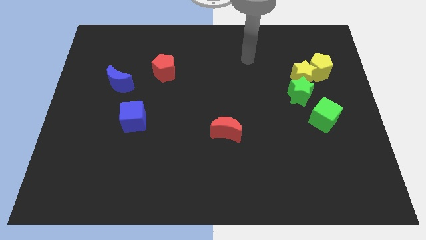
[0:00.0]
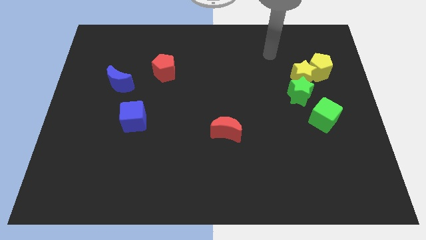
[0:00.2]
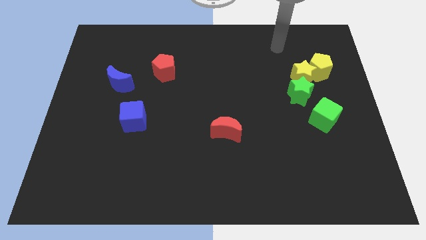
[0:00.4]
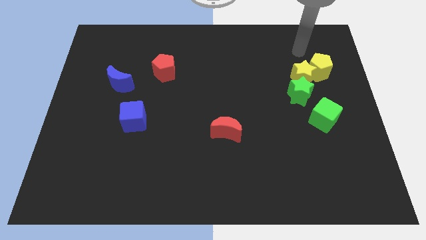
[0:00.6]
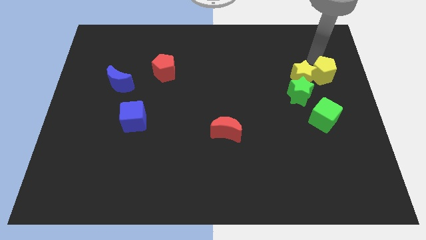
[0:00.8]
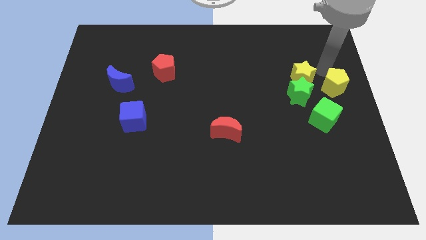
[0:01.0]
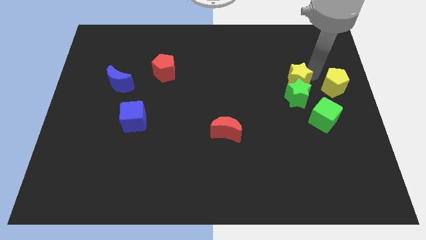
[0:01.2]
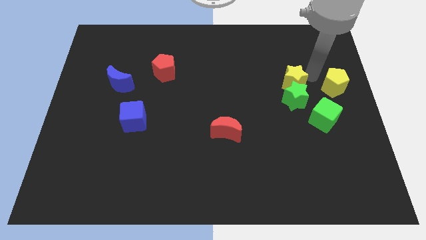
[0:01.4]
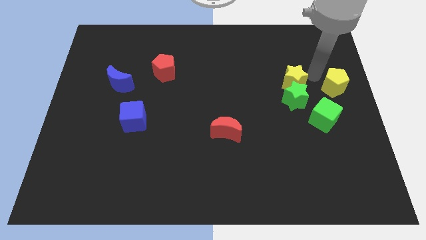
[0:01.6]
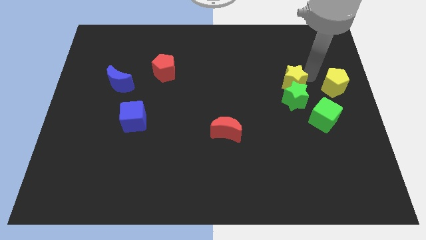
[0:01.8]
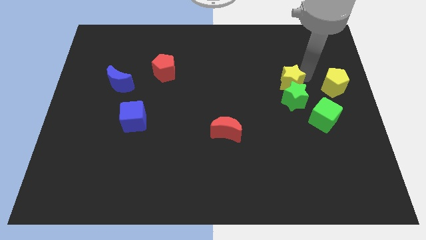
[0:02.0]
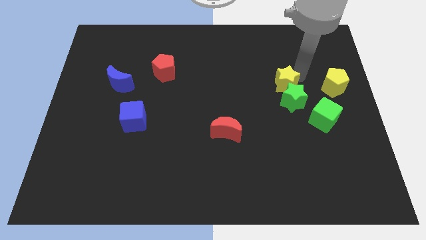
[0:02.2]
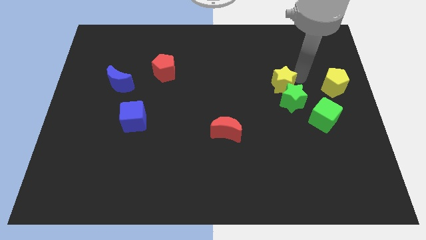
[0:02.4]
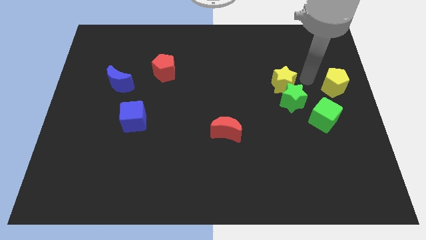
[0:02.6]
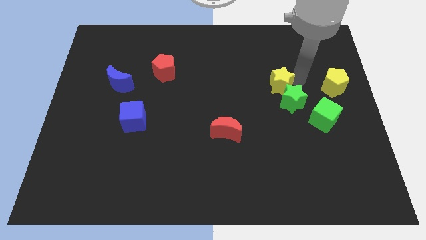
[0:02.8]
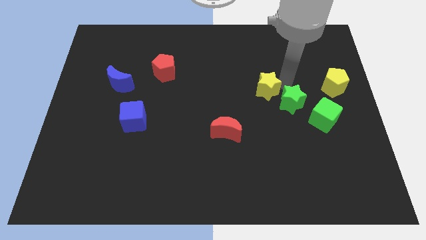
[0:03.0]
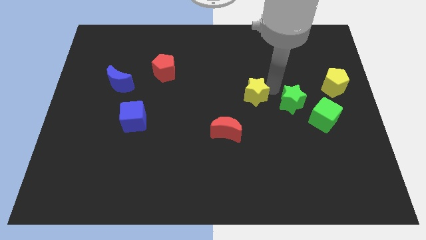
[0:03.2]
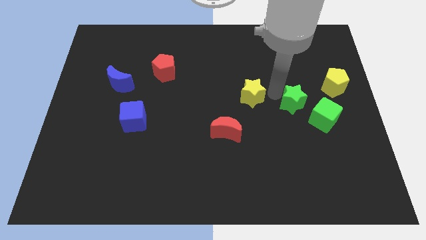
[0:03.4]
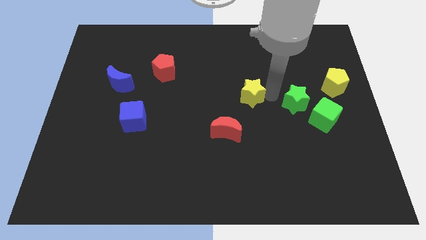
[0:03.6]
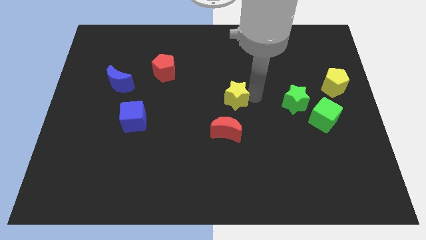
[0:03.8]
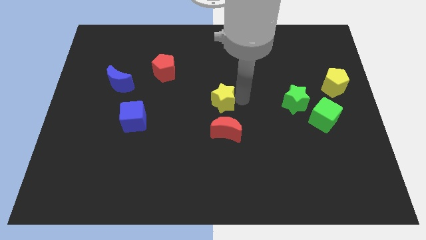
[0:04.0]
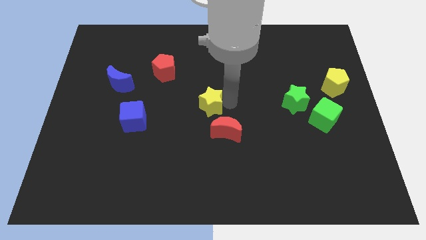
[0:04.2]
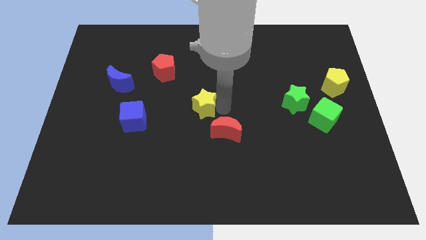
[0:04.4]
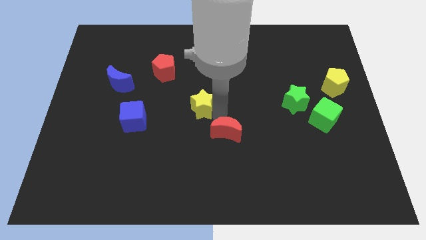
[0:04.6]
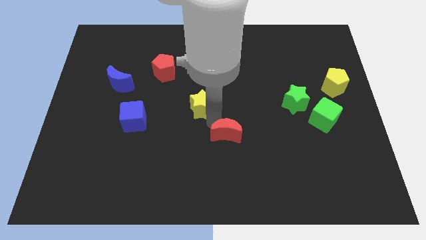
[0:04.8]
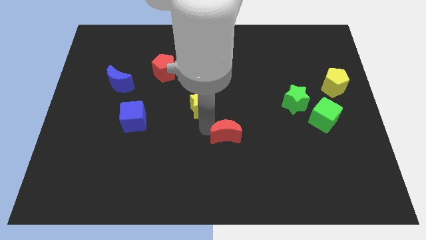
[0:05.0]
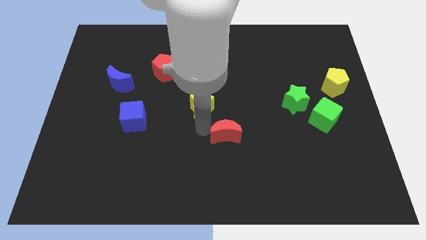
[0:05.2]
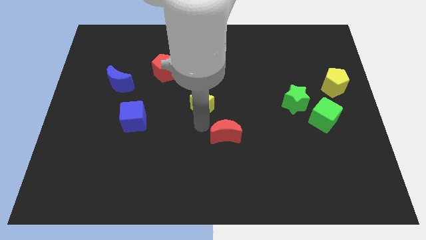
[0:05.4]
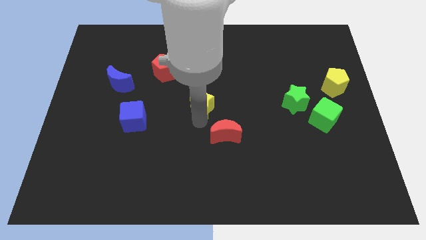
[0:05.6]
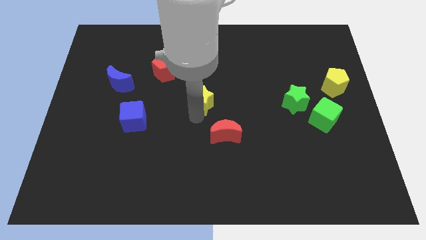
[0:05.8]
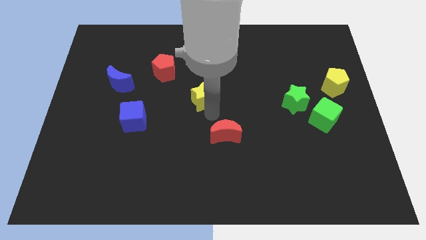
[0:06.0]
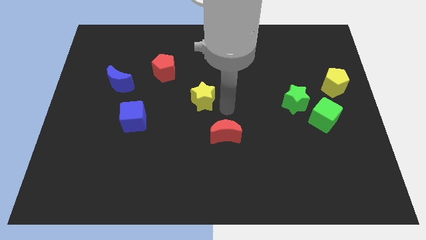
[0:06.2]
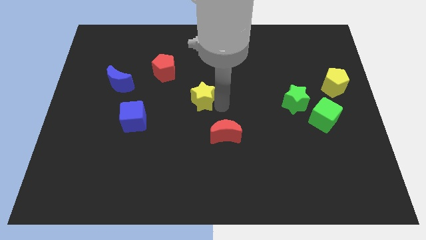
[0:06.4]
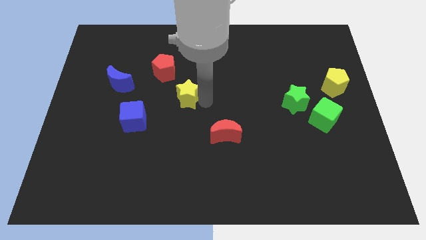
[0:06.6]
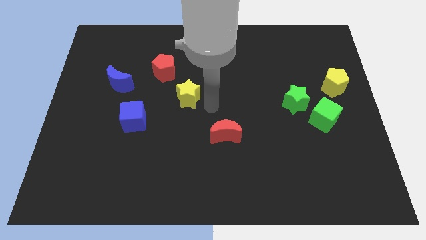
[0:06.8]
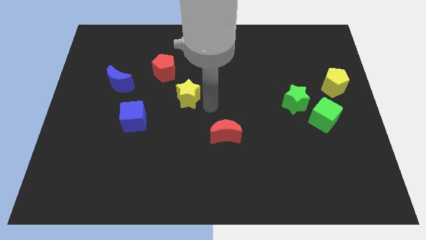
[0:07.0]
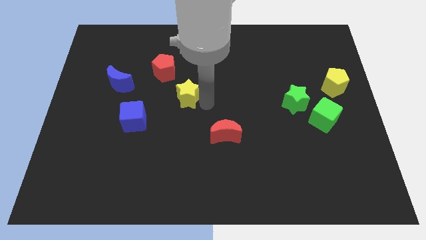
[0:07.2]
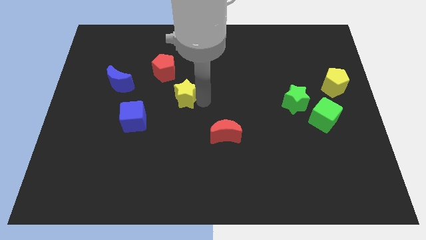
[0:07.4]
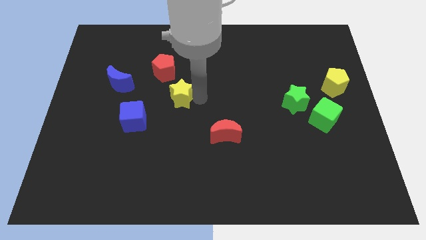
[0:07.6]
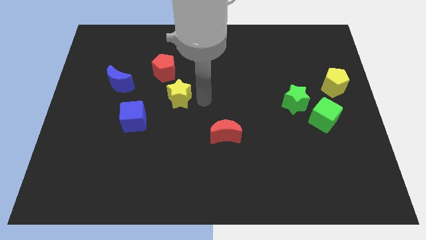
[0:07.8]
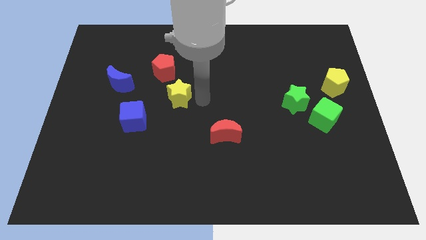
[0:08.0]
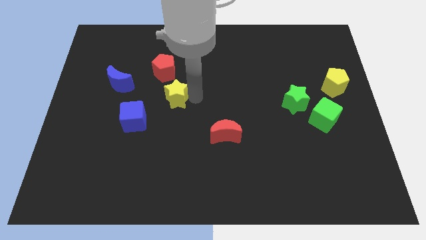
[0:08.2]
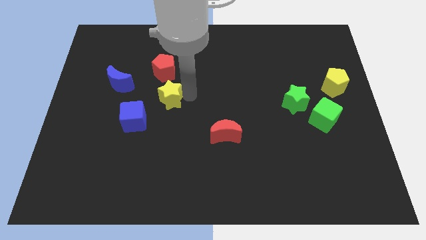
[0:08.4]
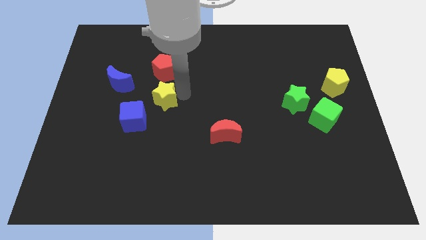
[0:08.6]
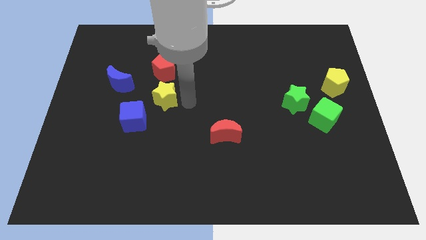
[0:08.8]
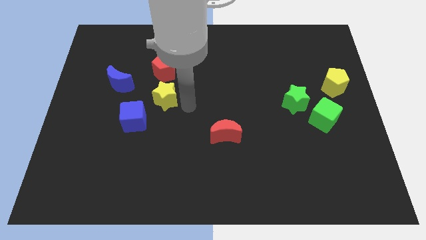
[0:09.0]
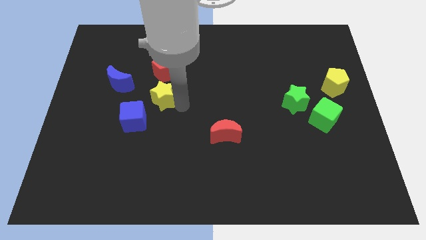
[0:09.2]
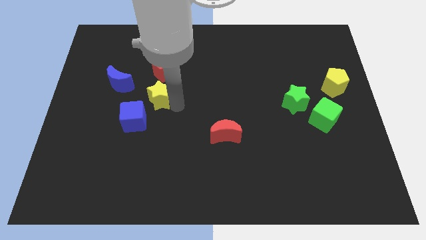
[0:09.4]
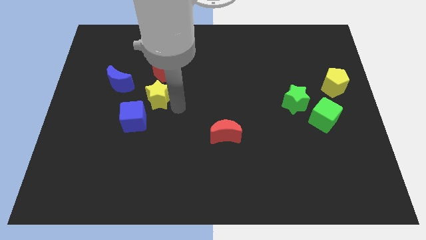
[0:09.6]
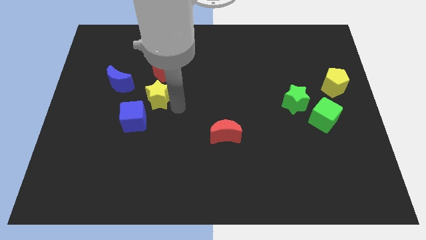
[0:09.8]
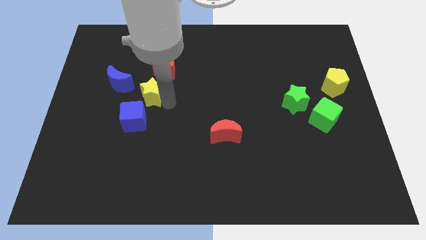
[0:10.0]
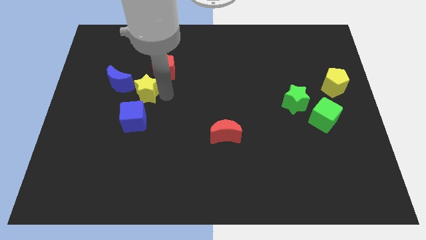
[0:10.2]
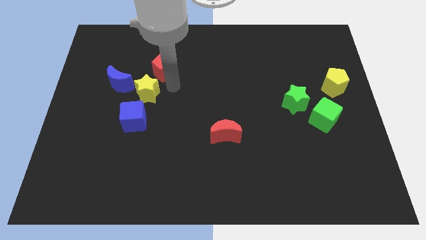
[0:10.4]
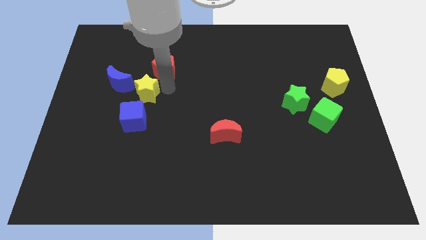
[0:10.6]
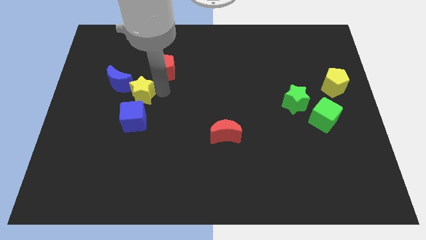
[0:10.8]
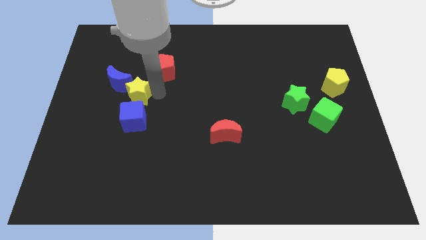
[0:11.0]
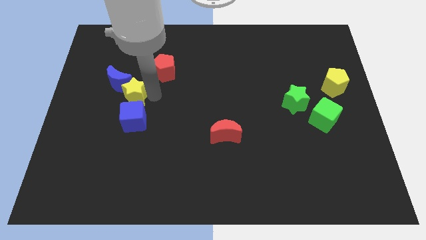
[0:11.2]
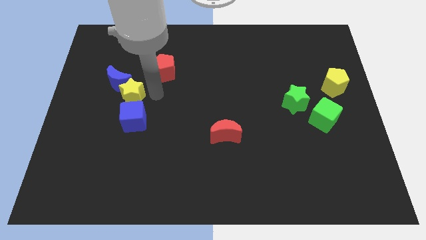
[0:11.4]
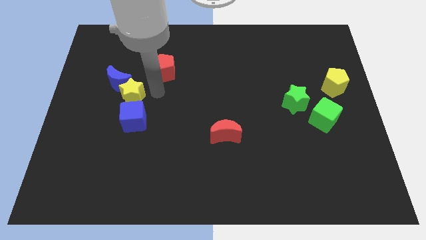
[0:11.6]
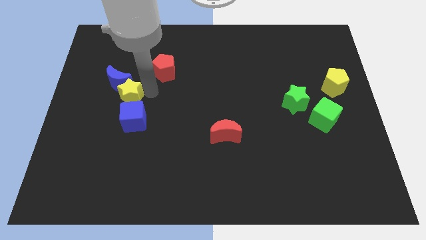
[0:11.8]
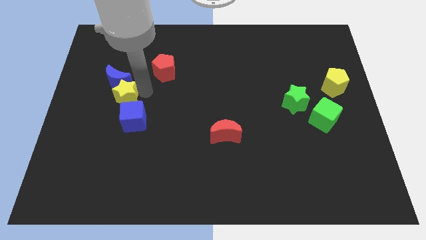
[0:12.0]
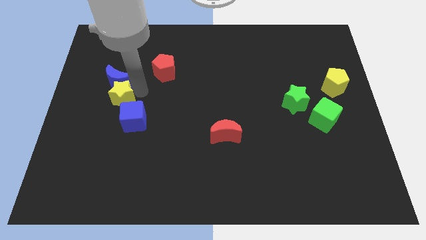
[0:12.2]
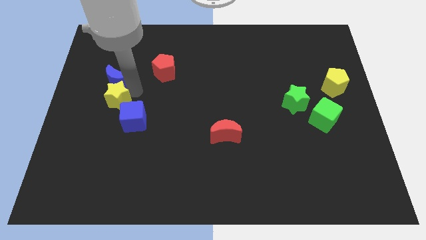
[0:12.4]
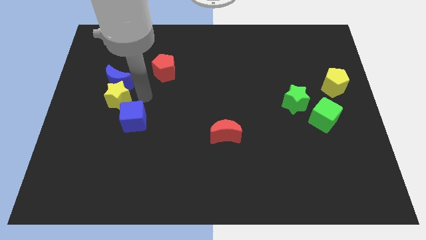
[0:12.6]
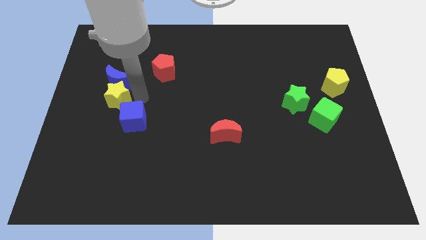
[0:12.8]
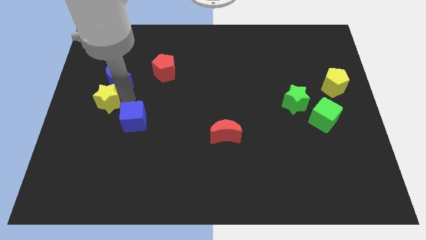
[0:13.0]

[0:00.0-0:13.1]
slide the yellow star to the left side of the board
